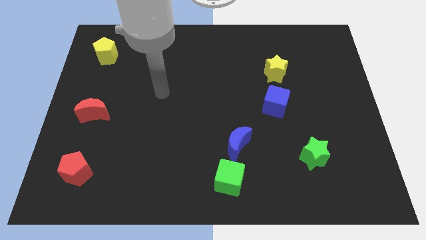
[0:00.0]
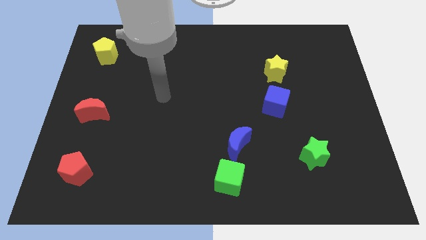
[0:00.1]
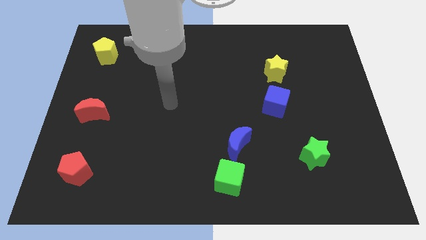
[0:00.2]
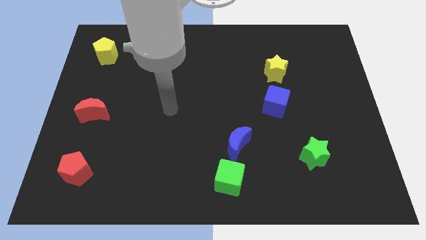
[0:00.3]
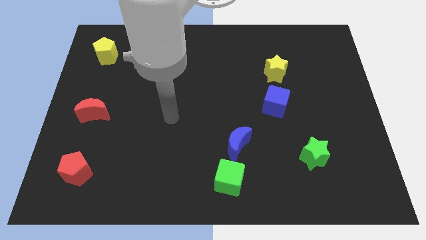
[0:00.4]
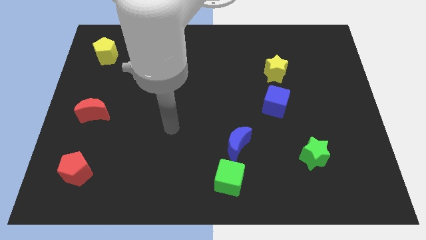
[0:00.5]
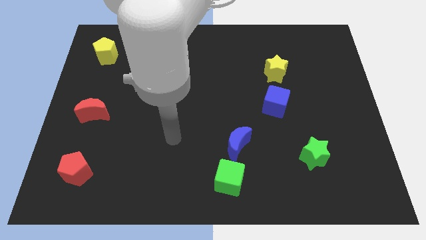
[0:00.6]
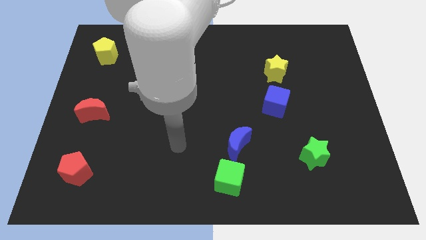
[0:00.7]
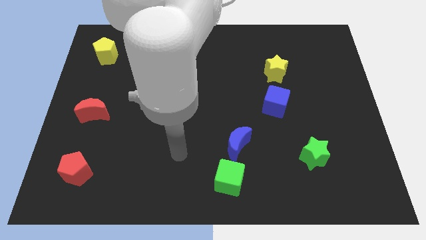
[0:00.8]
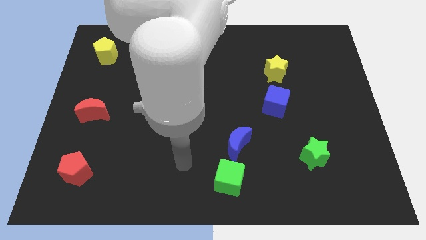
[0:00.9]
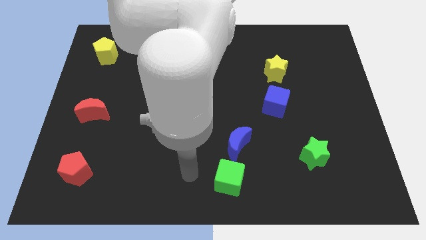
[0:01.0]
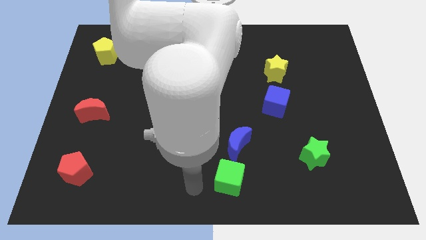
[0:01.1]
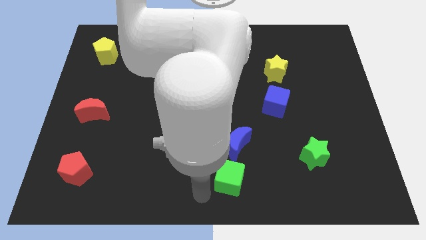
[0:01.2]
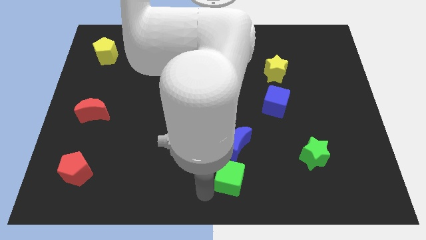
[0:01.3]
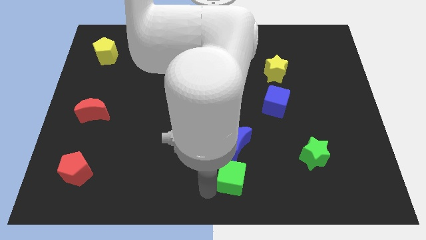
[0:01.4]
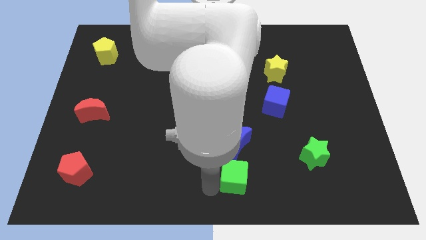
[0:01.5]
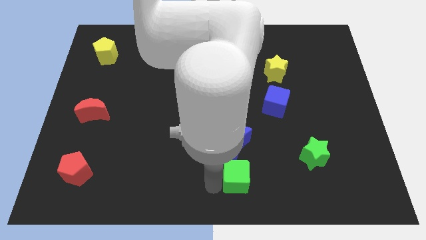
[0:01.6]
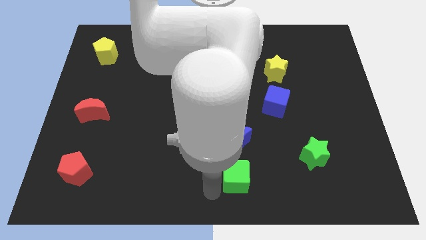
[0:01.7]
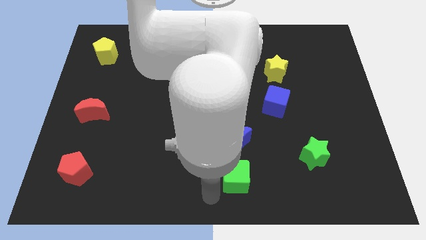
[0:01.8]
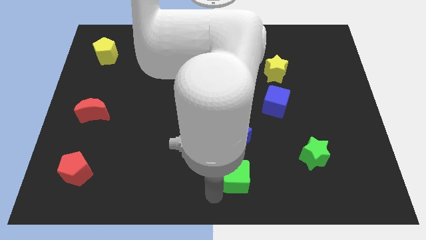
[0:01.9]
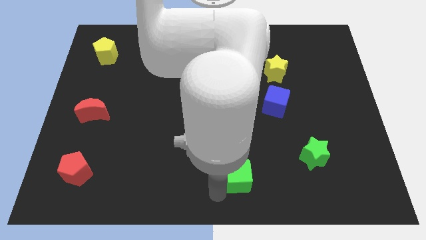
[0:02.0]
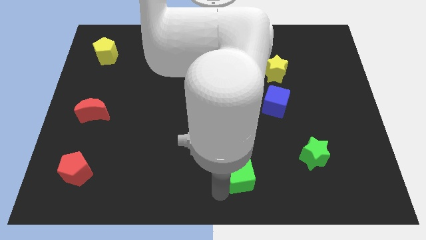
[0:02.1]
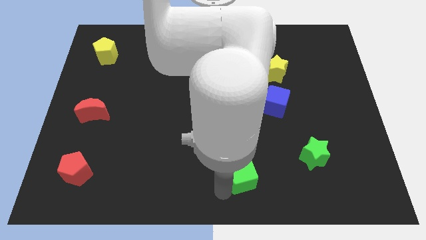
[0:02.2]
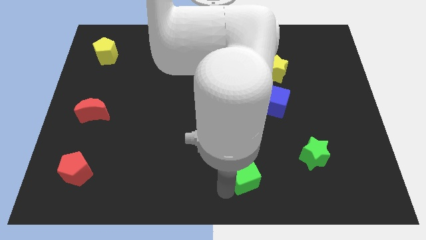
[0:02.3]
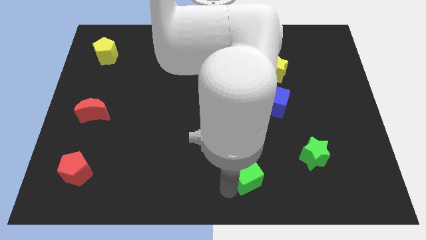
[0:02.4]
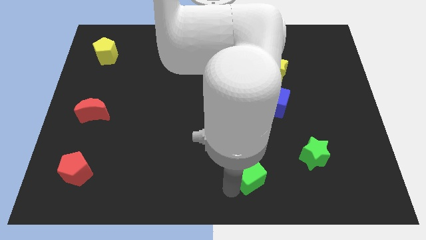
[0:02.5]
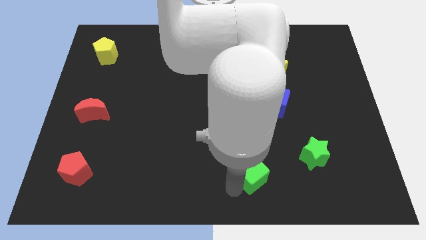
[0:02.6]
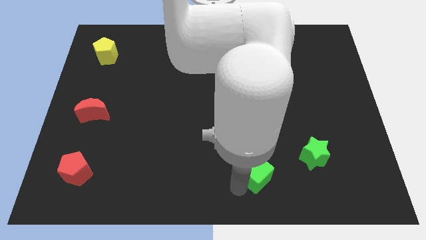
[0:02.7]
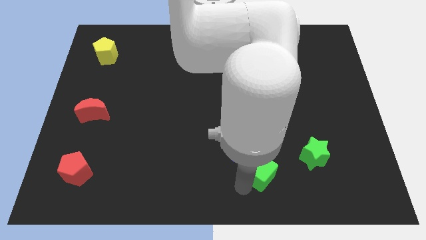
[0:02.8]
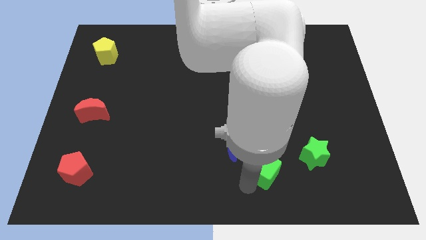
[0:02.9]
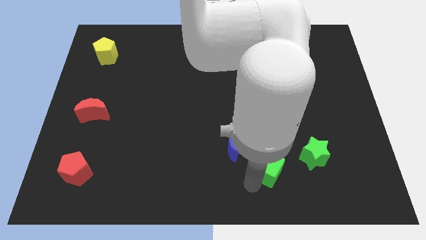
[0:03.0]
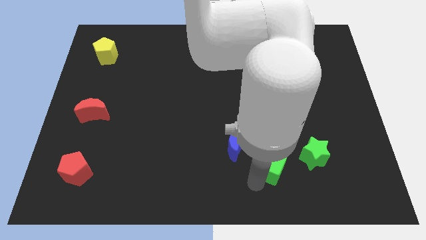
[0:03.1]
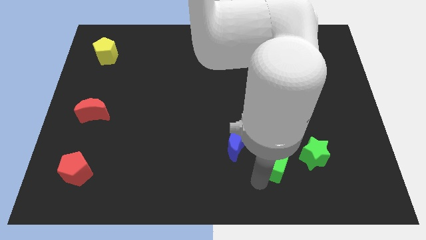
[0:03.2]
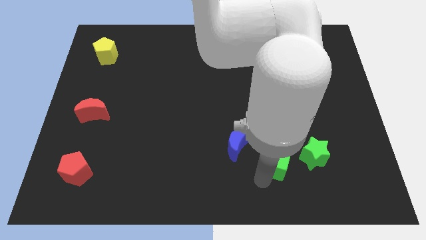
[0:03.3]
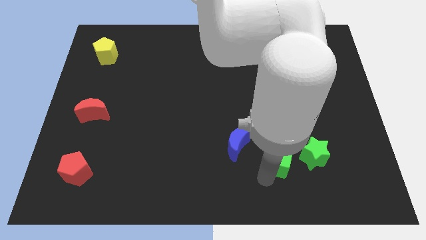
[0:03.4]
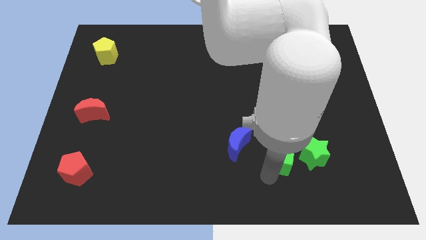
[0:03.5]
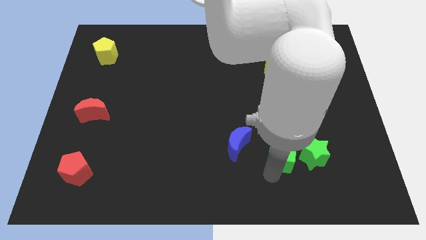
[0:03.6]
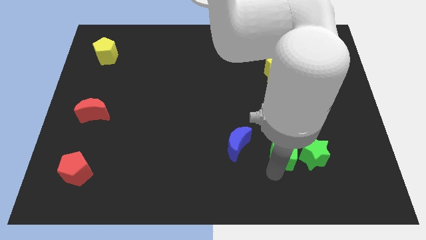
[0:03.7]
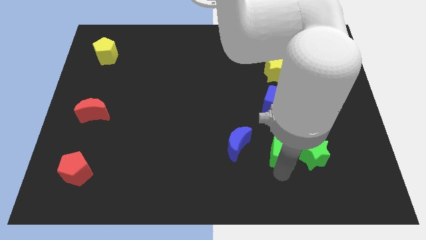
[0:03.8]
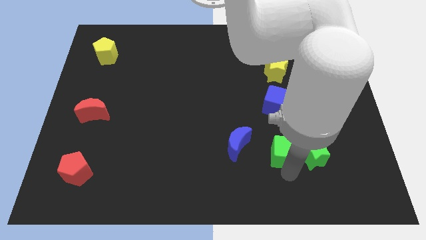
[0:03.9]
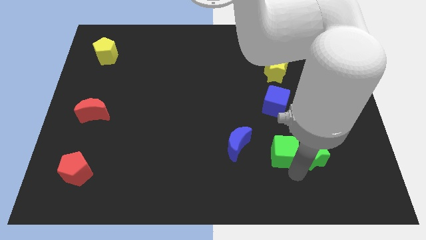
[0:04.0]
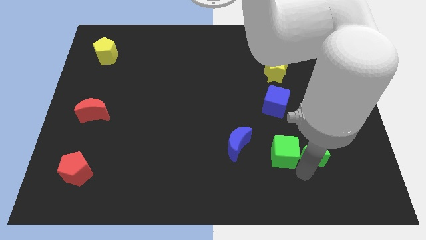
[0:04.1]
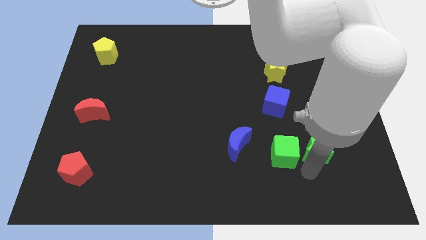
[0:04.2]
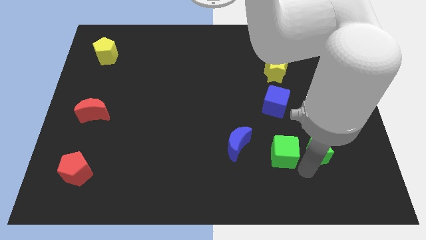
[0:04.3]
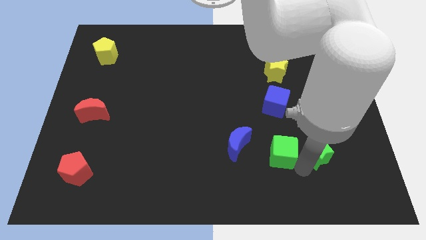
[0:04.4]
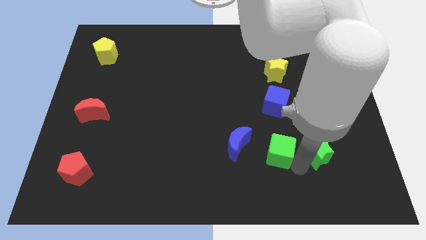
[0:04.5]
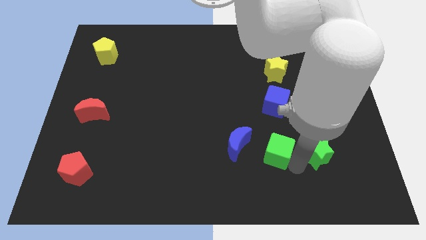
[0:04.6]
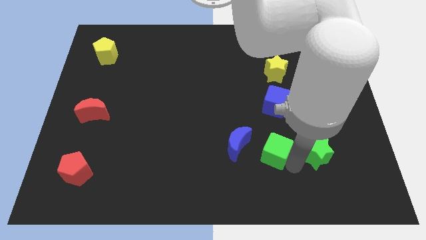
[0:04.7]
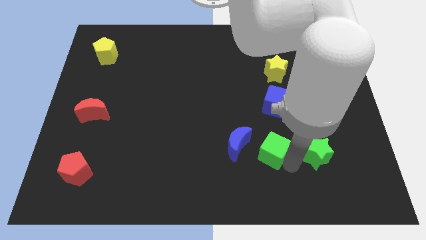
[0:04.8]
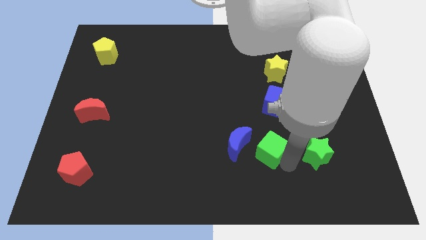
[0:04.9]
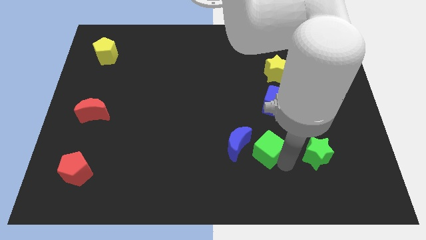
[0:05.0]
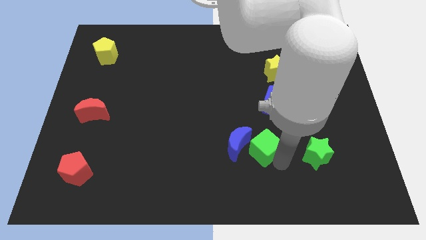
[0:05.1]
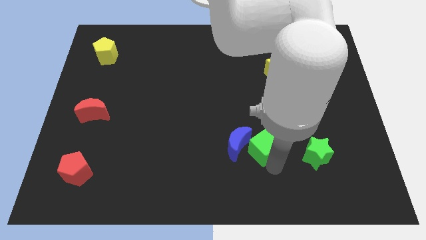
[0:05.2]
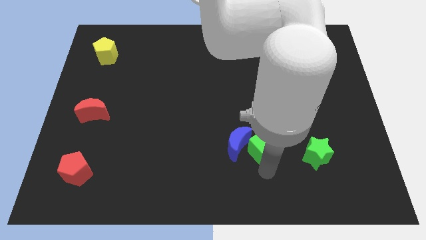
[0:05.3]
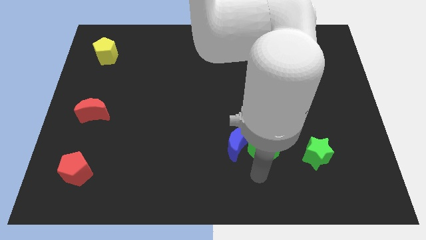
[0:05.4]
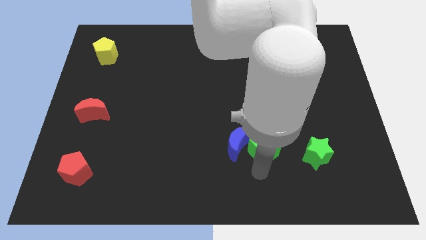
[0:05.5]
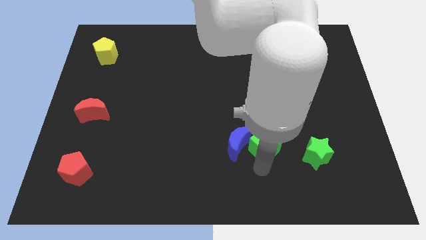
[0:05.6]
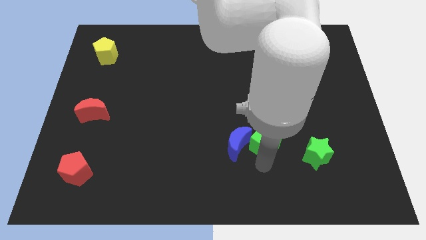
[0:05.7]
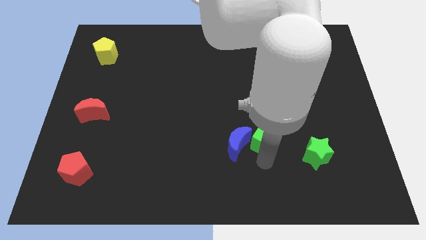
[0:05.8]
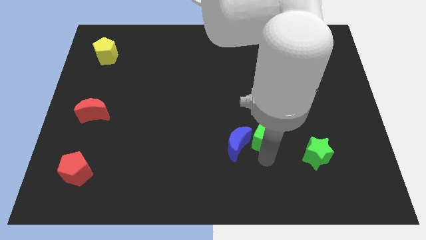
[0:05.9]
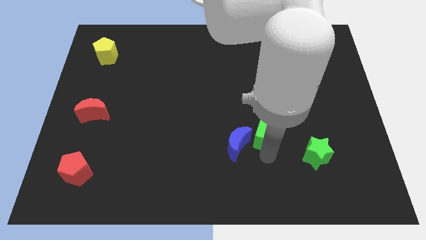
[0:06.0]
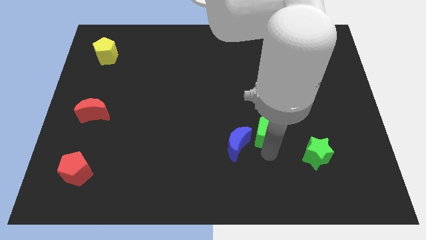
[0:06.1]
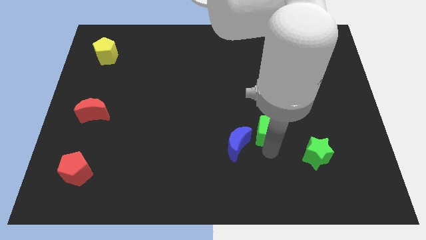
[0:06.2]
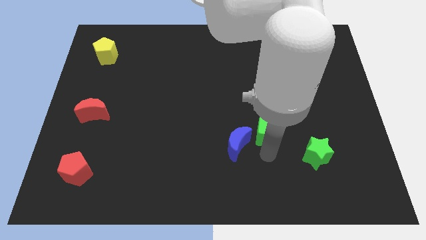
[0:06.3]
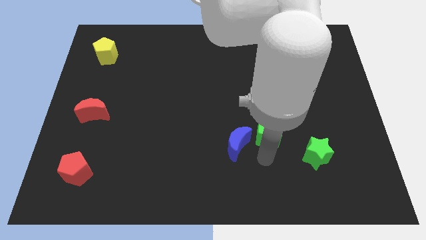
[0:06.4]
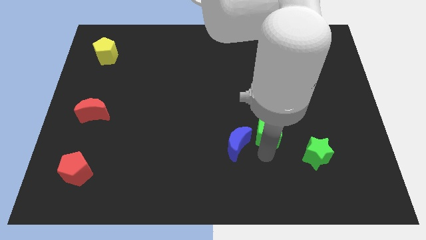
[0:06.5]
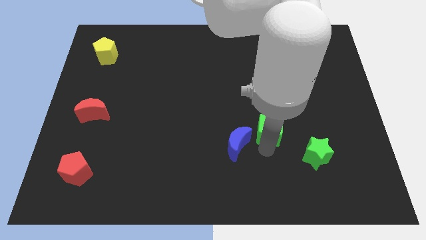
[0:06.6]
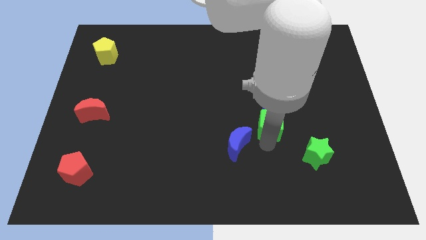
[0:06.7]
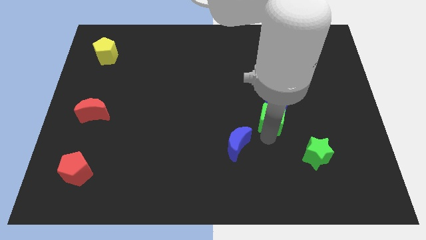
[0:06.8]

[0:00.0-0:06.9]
slide the green cube to the blue cube
